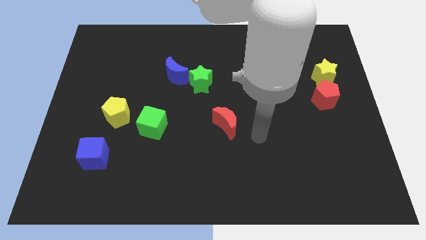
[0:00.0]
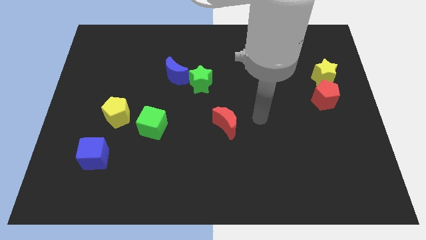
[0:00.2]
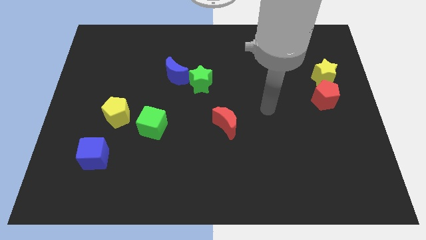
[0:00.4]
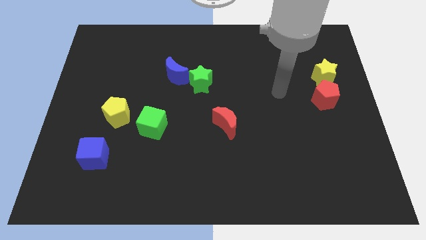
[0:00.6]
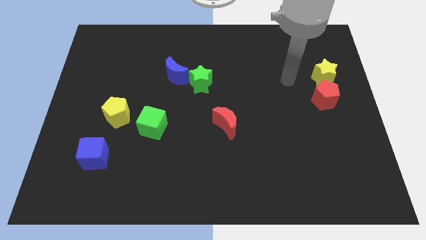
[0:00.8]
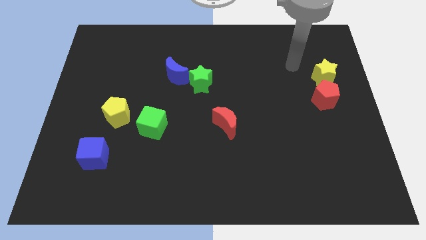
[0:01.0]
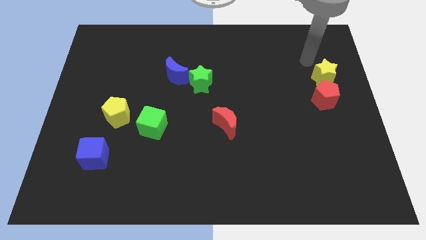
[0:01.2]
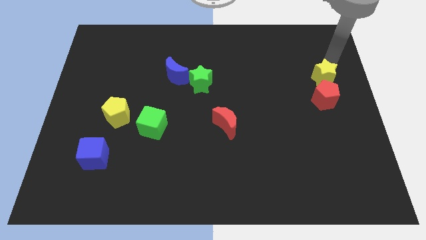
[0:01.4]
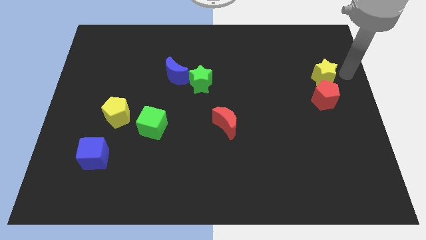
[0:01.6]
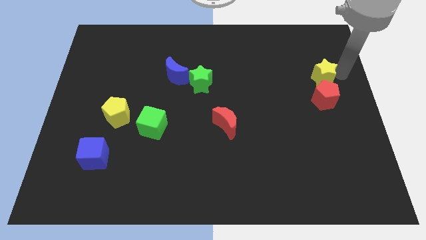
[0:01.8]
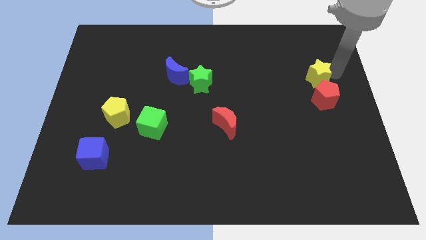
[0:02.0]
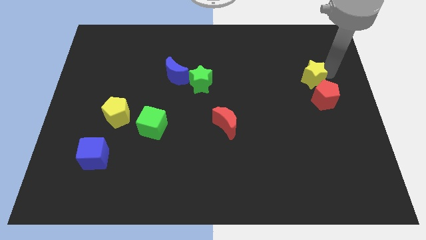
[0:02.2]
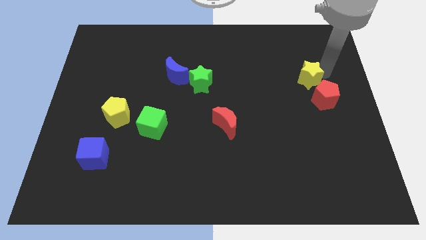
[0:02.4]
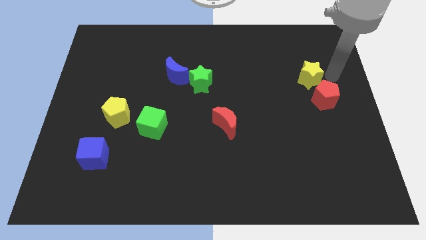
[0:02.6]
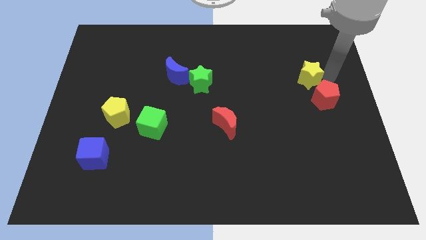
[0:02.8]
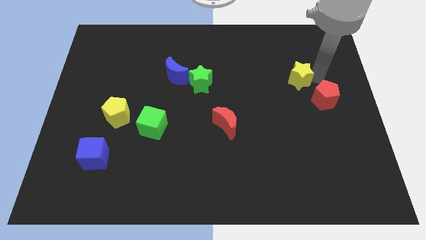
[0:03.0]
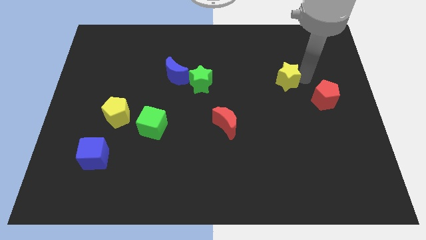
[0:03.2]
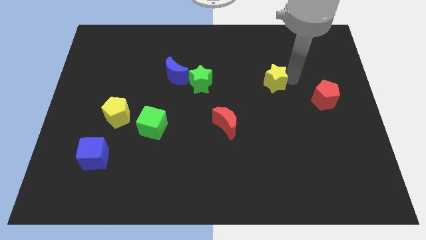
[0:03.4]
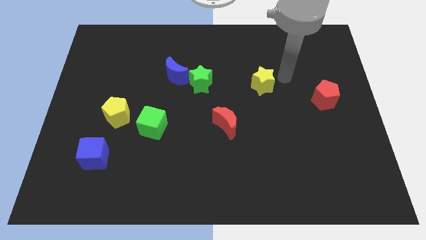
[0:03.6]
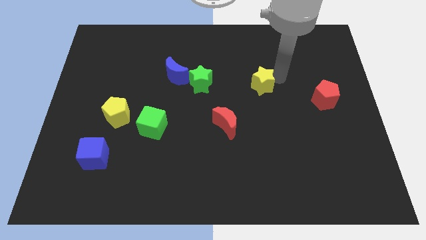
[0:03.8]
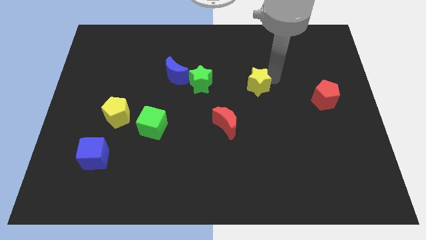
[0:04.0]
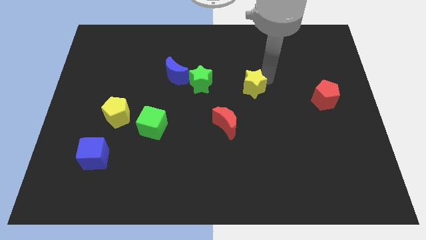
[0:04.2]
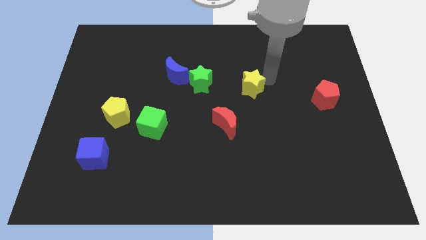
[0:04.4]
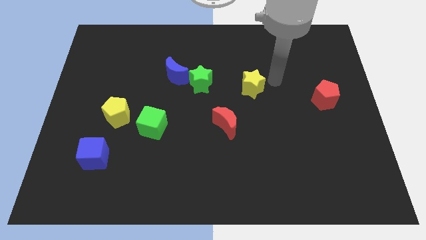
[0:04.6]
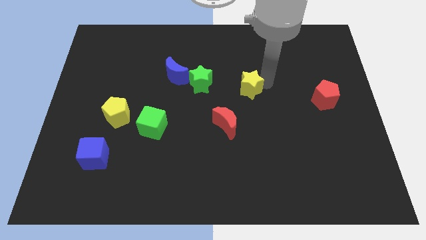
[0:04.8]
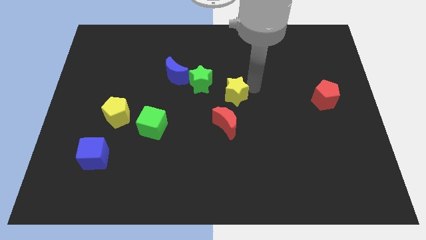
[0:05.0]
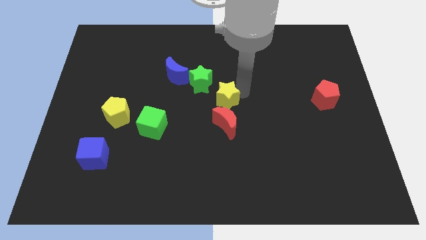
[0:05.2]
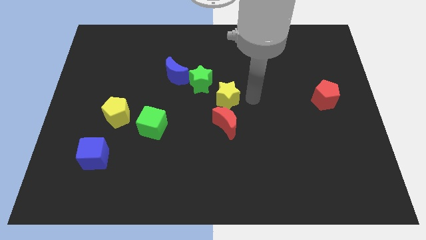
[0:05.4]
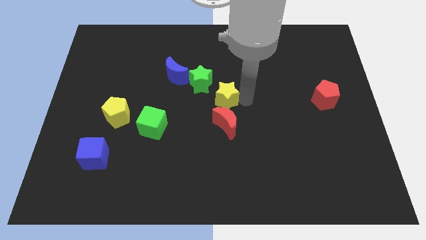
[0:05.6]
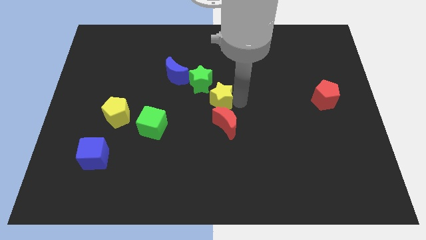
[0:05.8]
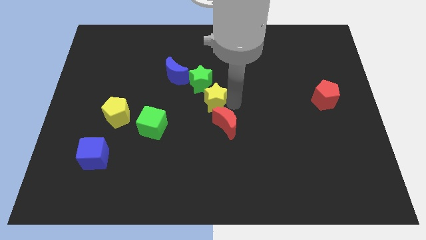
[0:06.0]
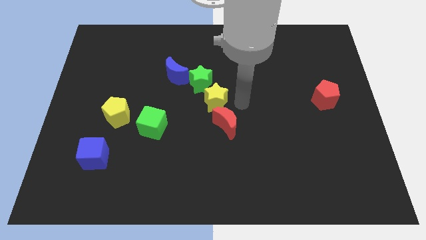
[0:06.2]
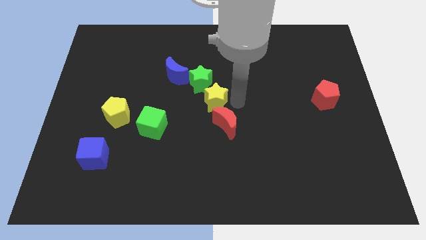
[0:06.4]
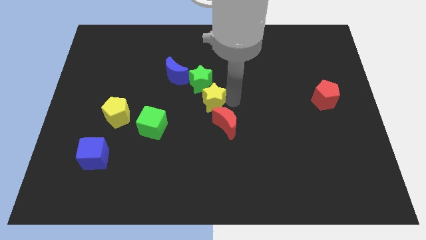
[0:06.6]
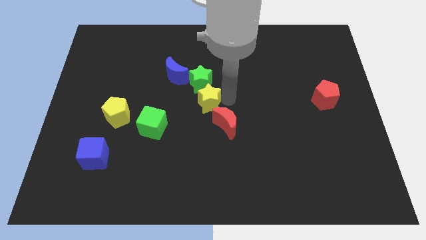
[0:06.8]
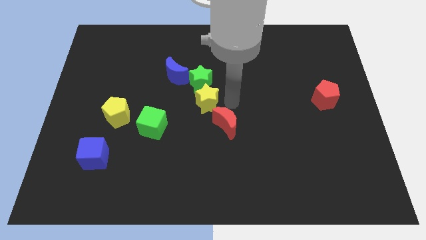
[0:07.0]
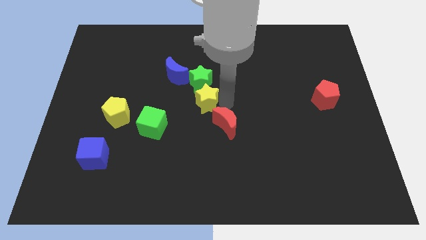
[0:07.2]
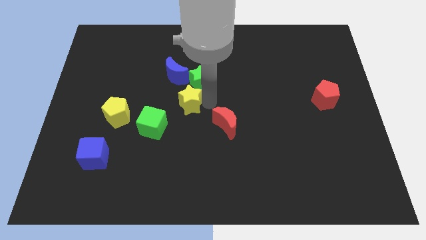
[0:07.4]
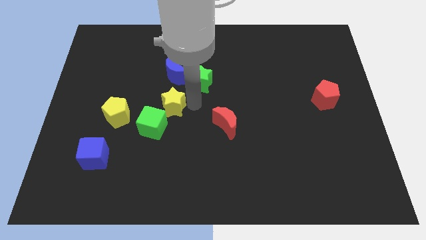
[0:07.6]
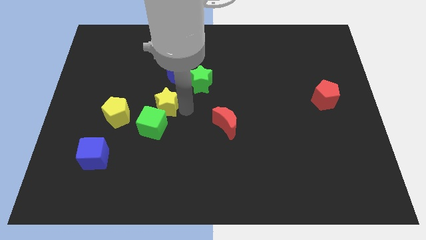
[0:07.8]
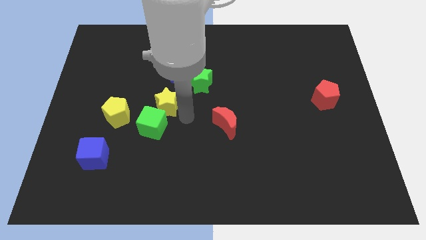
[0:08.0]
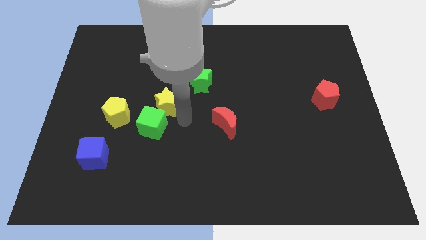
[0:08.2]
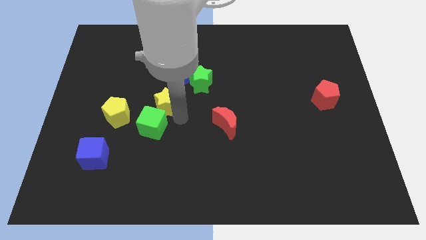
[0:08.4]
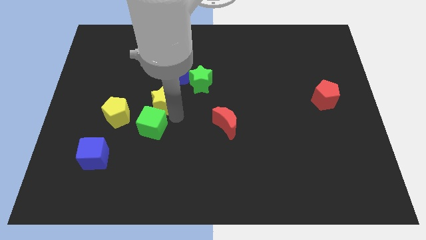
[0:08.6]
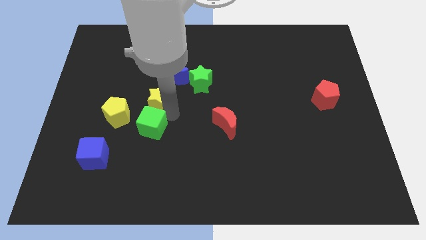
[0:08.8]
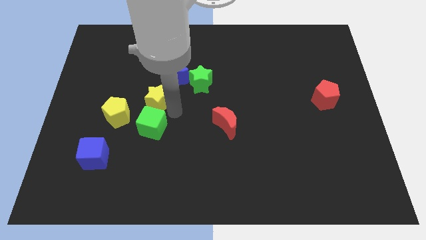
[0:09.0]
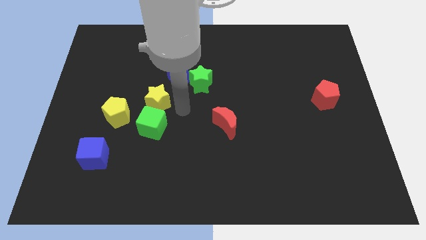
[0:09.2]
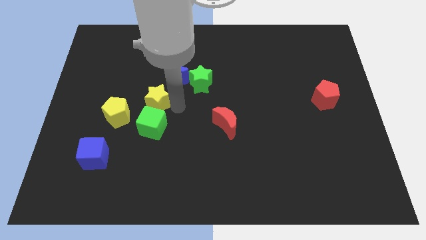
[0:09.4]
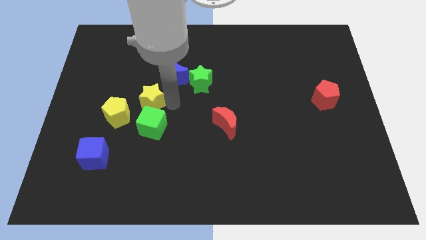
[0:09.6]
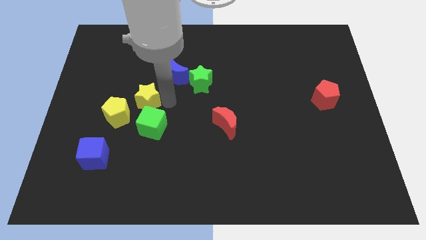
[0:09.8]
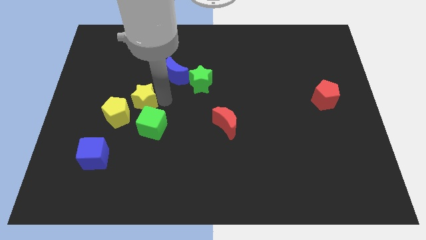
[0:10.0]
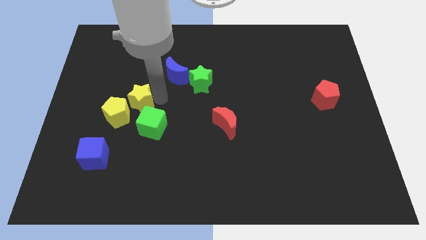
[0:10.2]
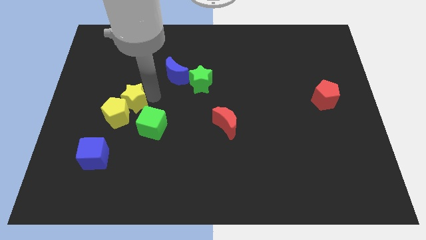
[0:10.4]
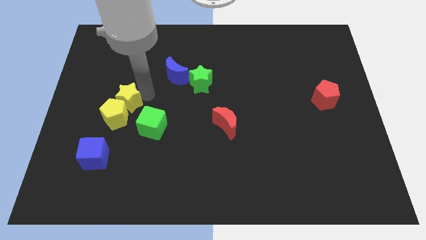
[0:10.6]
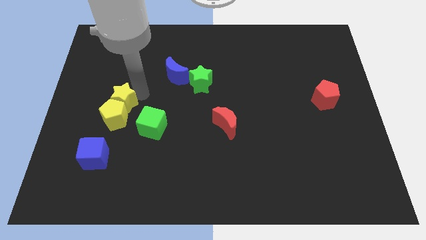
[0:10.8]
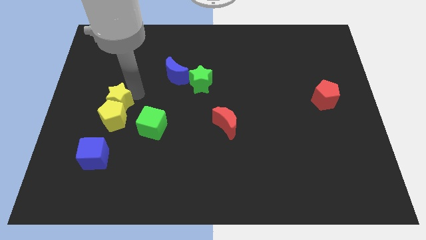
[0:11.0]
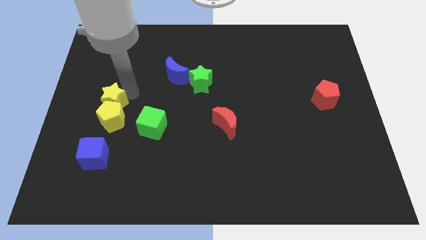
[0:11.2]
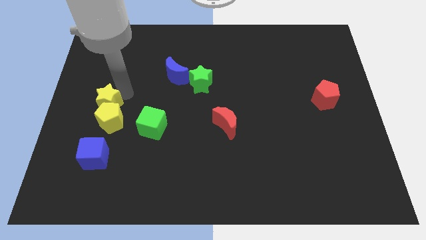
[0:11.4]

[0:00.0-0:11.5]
push the yellow star to the center left
